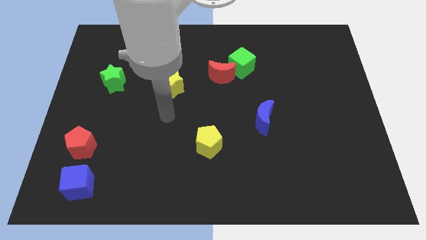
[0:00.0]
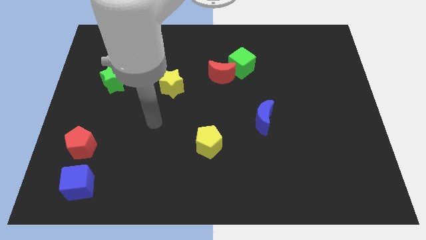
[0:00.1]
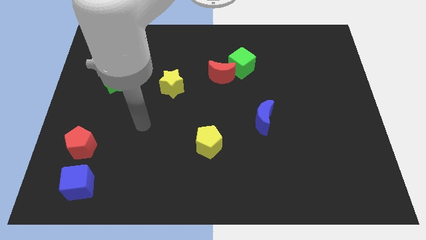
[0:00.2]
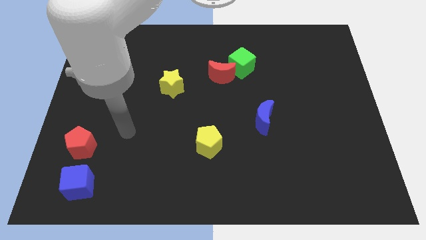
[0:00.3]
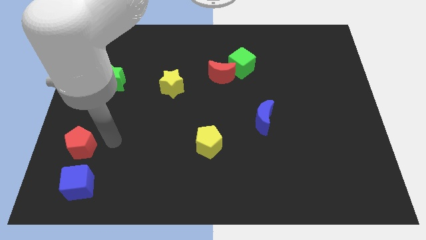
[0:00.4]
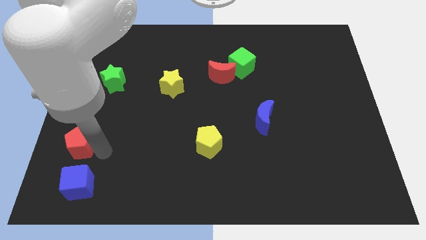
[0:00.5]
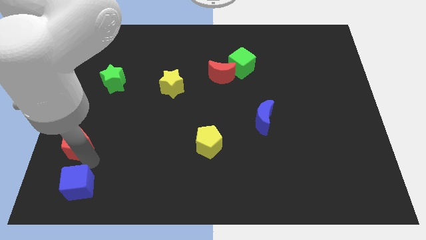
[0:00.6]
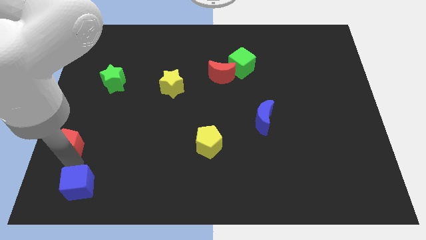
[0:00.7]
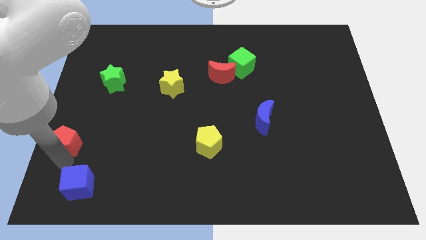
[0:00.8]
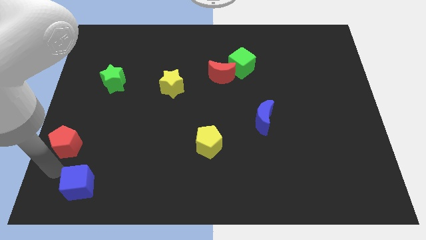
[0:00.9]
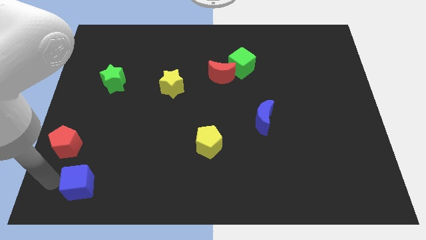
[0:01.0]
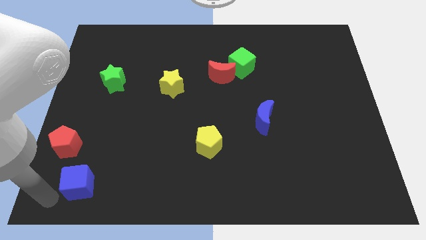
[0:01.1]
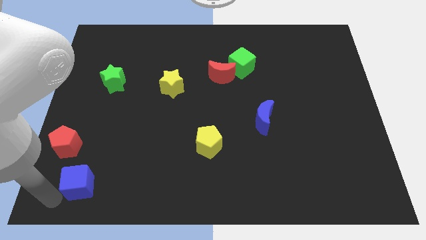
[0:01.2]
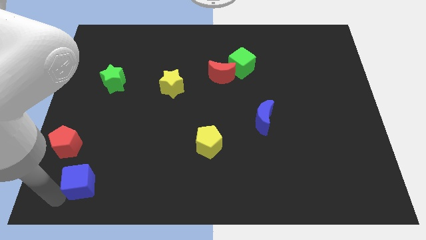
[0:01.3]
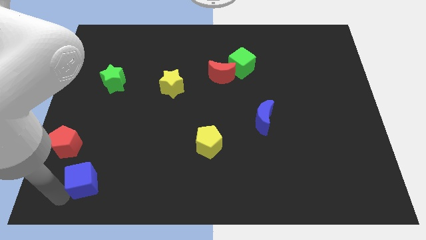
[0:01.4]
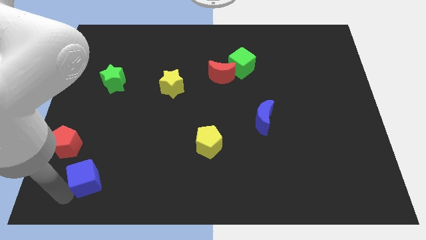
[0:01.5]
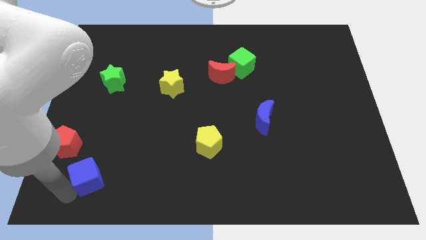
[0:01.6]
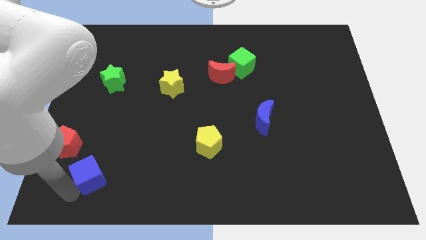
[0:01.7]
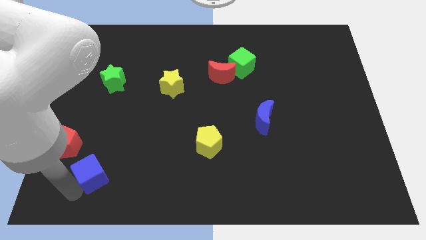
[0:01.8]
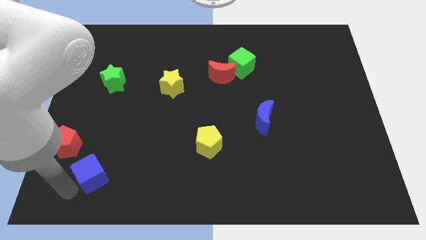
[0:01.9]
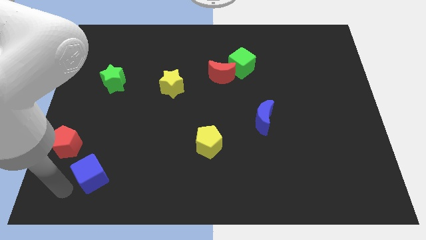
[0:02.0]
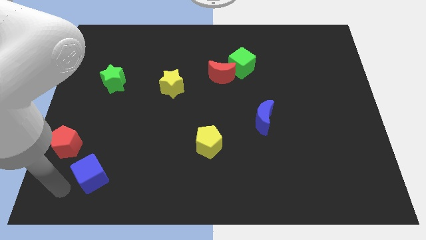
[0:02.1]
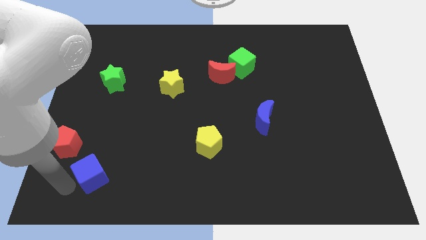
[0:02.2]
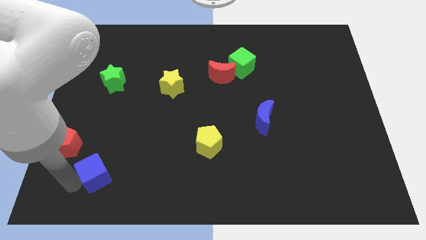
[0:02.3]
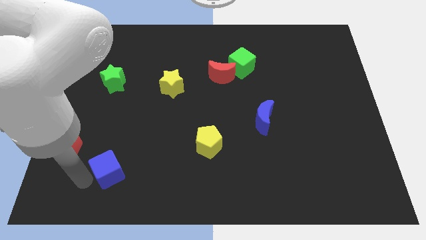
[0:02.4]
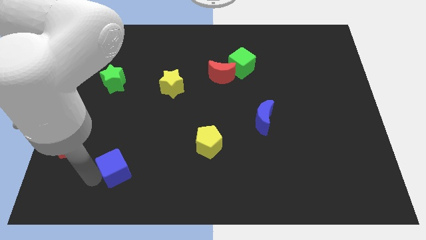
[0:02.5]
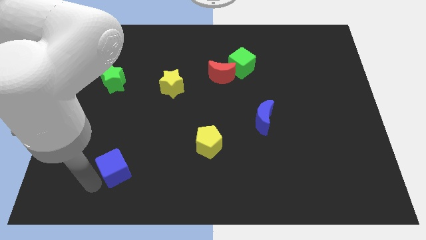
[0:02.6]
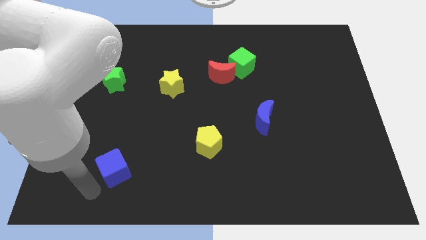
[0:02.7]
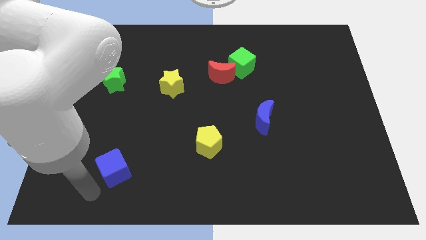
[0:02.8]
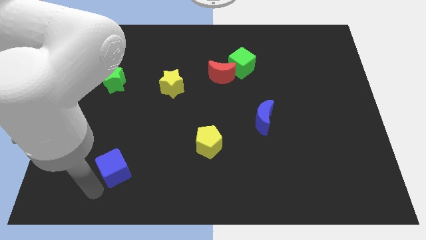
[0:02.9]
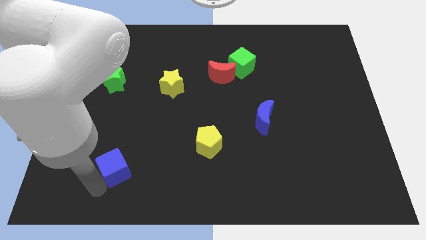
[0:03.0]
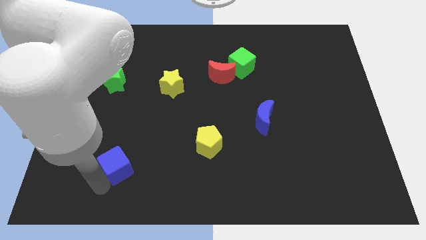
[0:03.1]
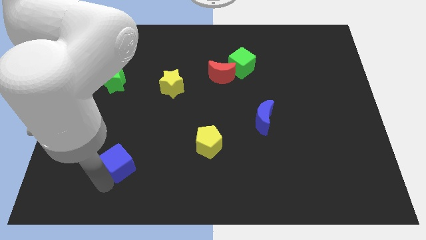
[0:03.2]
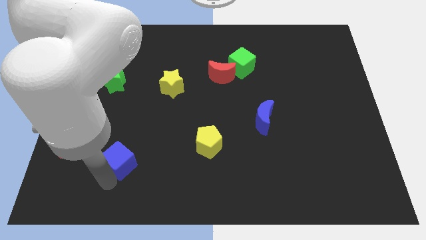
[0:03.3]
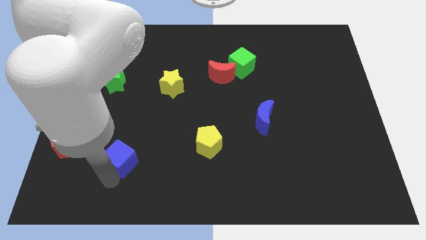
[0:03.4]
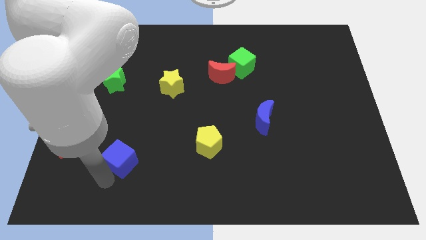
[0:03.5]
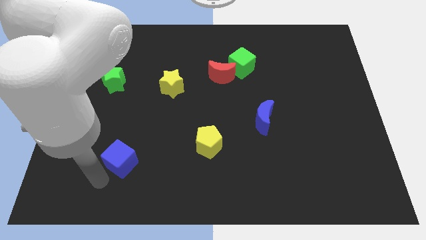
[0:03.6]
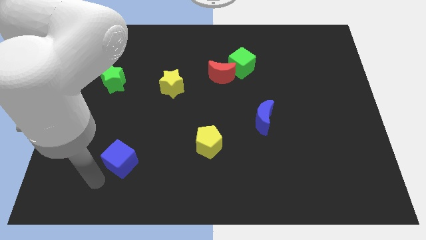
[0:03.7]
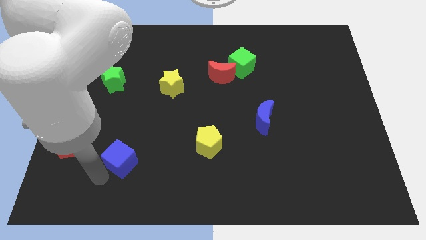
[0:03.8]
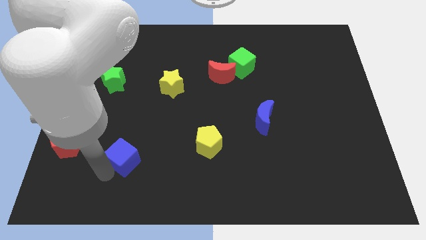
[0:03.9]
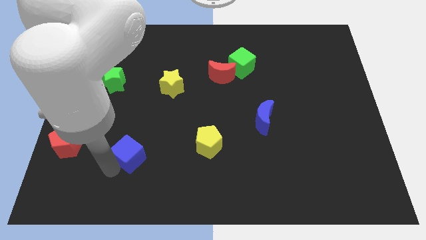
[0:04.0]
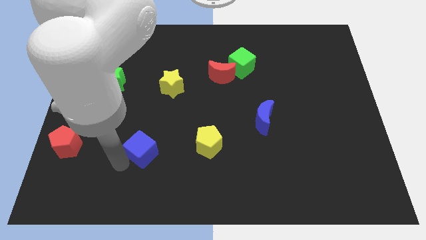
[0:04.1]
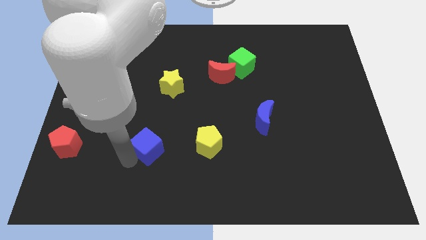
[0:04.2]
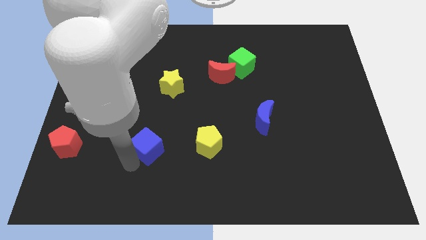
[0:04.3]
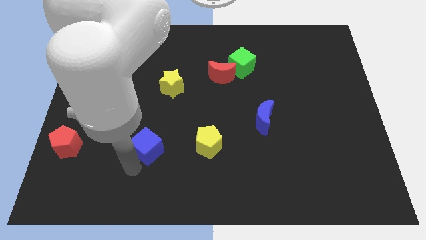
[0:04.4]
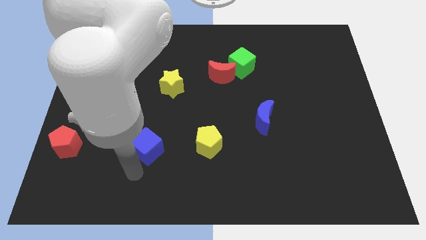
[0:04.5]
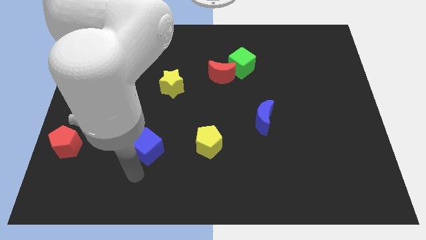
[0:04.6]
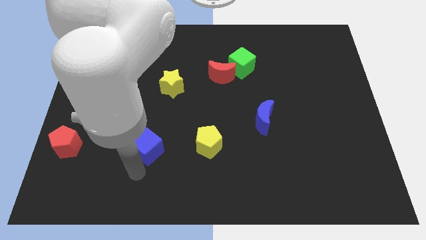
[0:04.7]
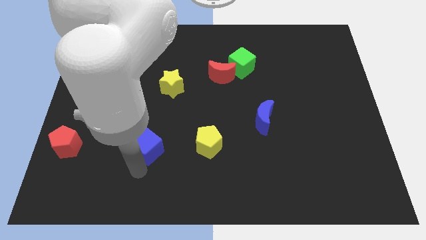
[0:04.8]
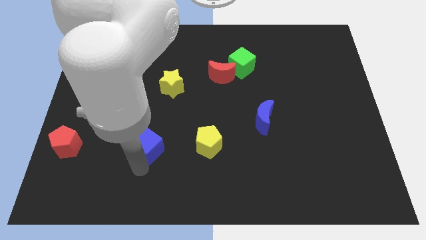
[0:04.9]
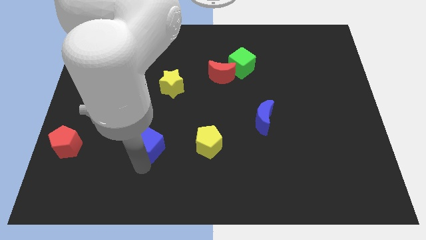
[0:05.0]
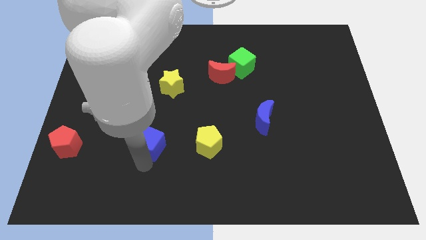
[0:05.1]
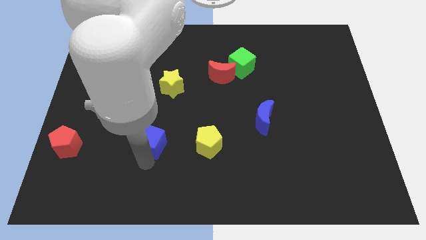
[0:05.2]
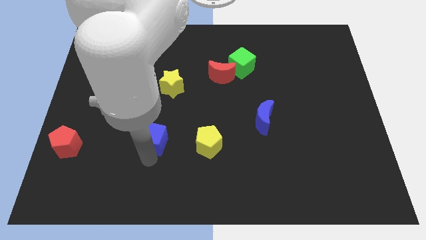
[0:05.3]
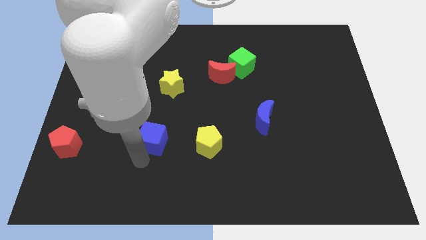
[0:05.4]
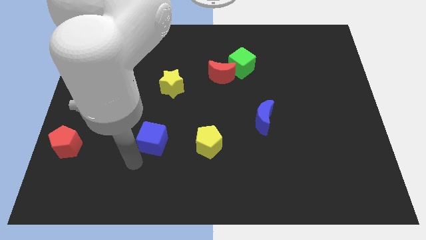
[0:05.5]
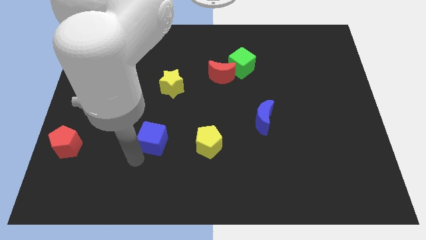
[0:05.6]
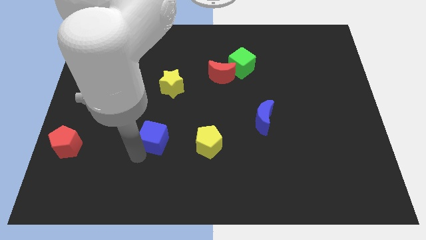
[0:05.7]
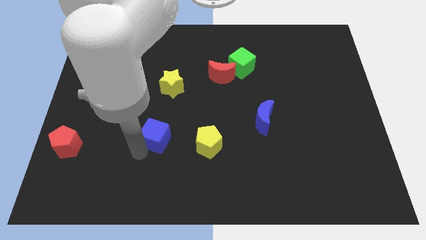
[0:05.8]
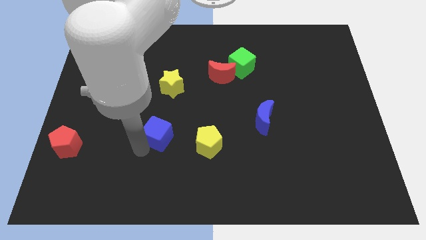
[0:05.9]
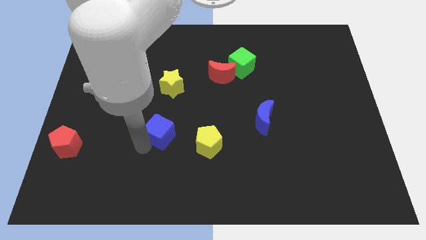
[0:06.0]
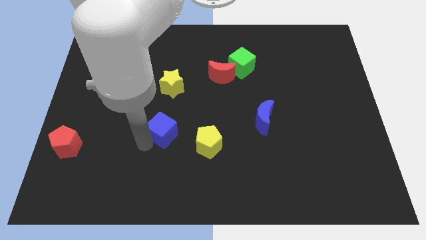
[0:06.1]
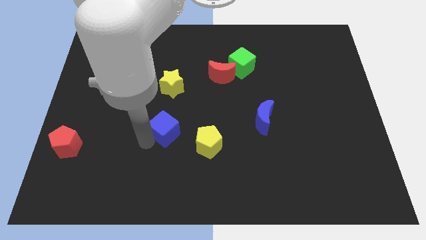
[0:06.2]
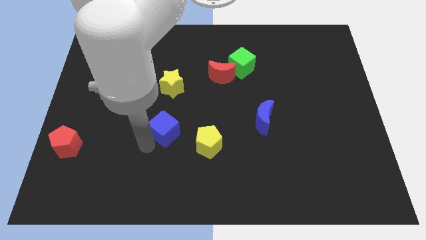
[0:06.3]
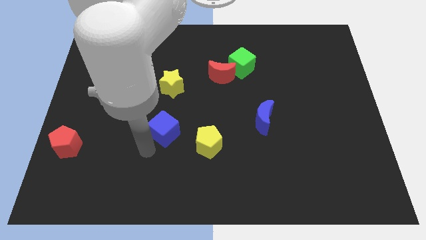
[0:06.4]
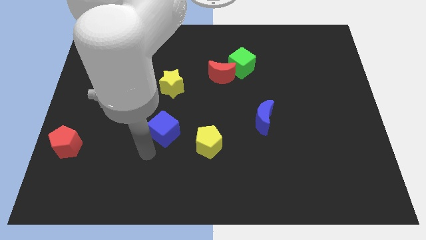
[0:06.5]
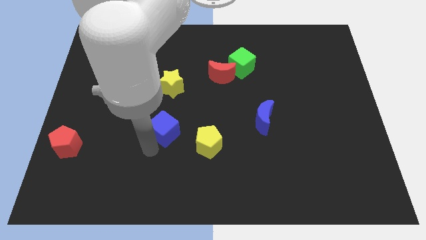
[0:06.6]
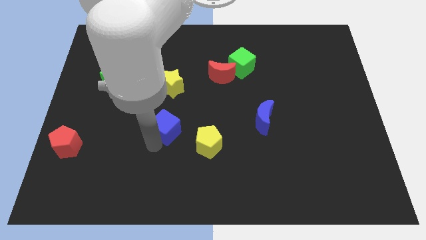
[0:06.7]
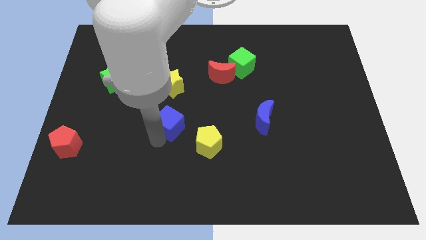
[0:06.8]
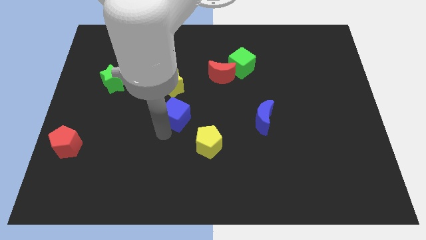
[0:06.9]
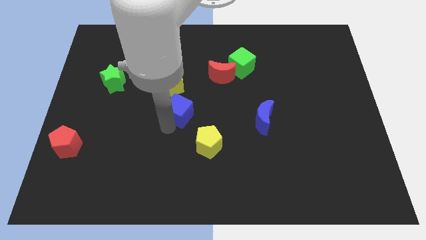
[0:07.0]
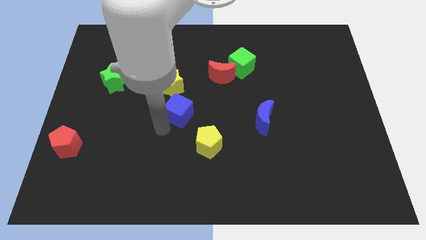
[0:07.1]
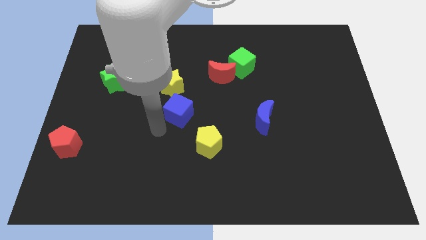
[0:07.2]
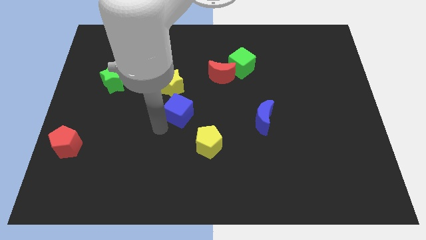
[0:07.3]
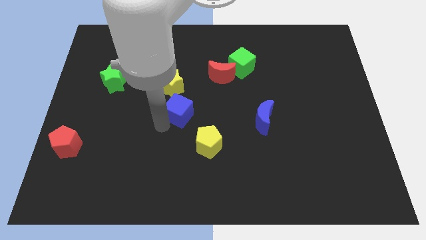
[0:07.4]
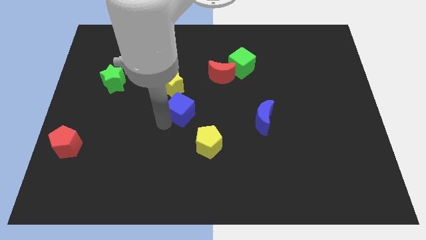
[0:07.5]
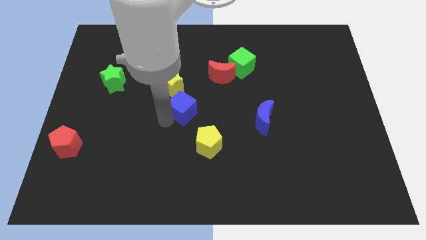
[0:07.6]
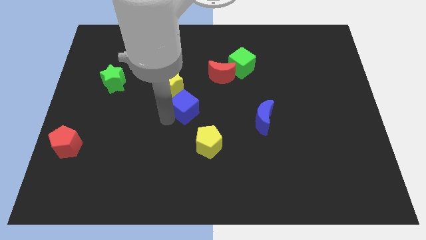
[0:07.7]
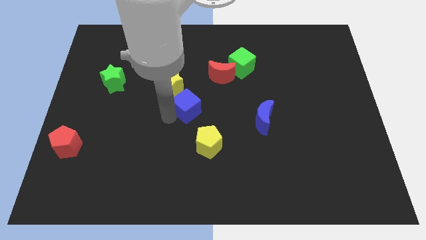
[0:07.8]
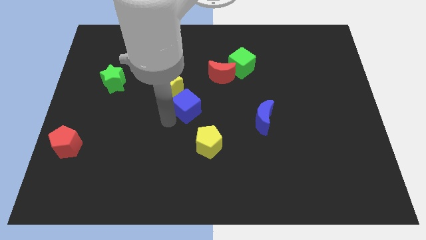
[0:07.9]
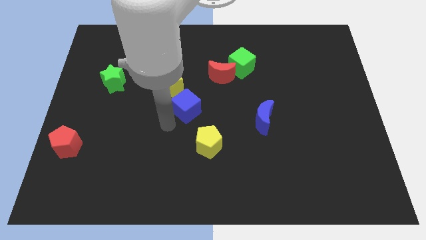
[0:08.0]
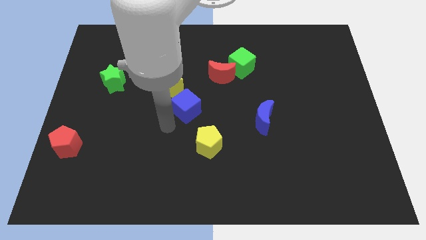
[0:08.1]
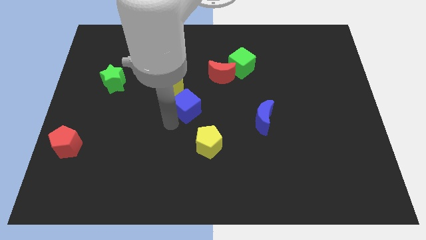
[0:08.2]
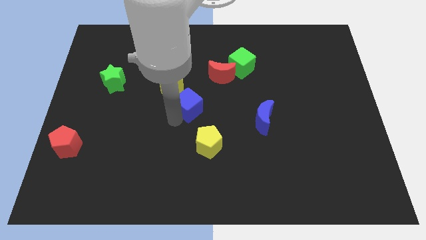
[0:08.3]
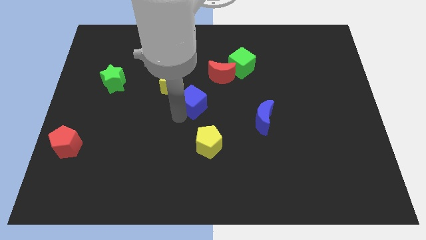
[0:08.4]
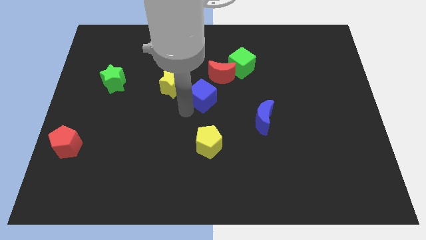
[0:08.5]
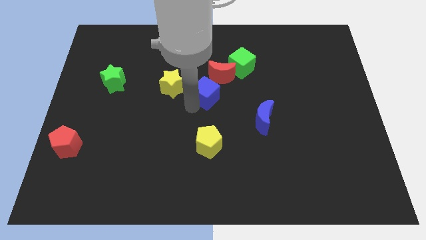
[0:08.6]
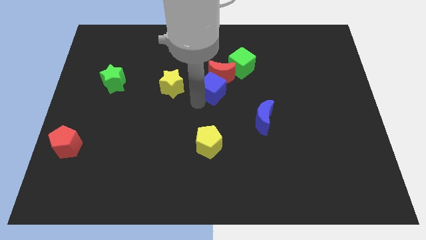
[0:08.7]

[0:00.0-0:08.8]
push the blue cube to the bottom left of the green cube
